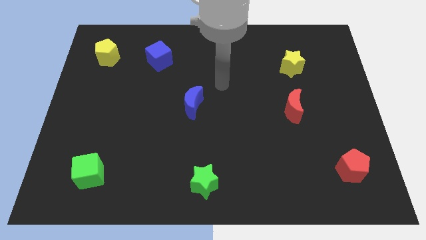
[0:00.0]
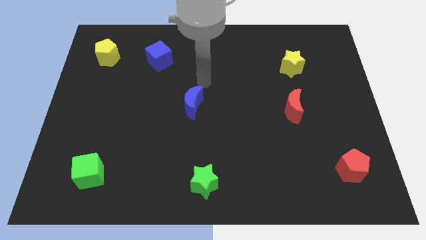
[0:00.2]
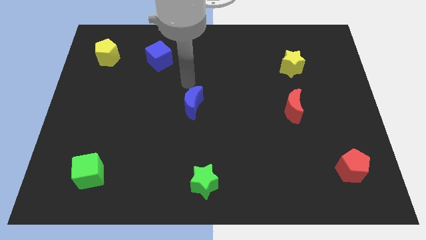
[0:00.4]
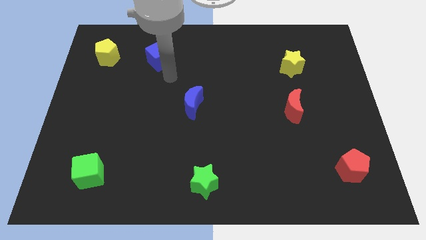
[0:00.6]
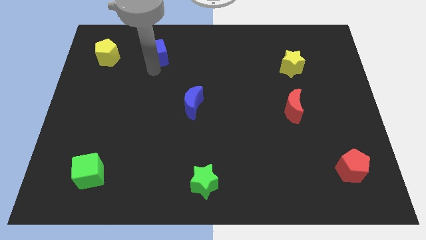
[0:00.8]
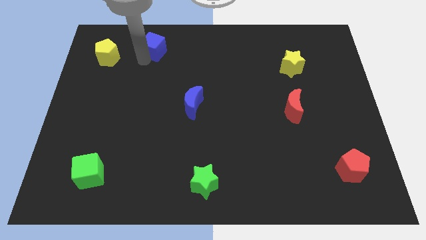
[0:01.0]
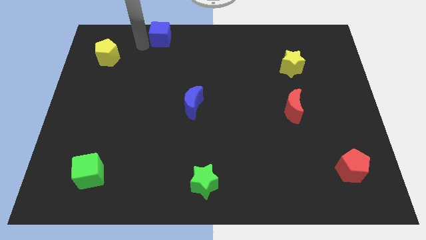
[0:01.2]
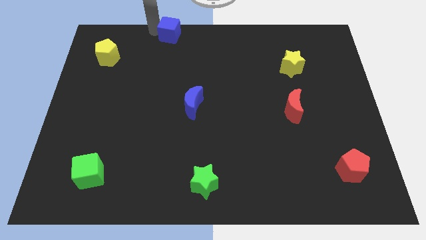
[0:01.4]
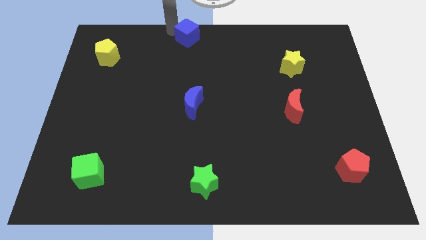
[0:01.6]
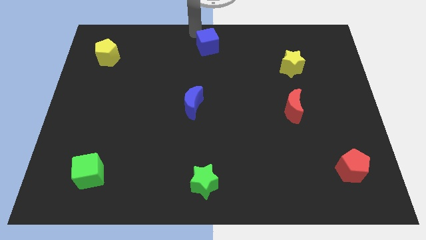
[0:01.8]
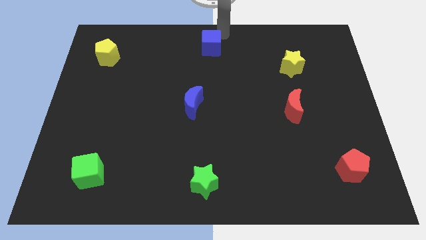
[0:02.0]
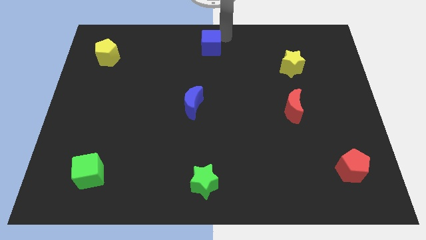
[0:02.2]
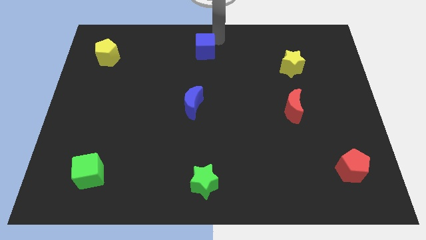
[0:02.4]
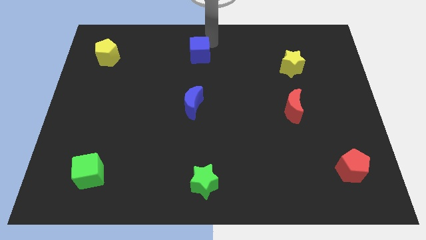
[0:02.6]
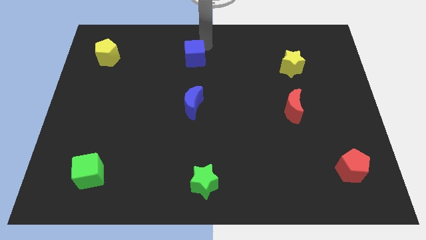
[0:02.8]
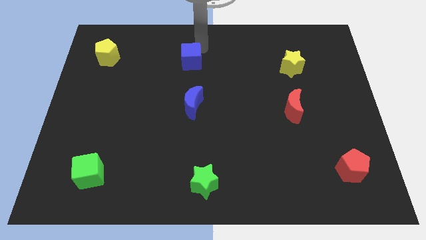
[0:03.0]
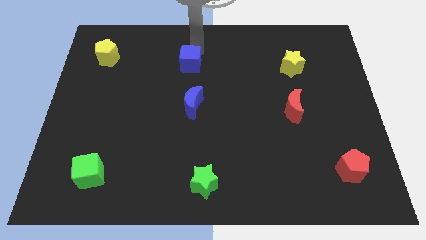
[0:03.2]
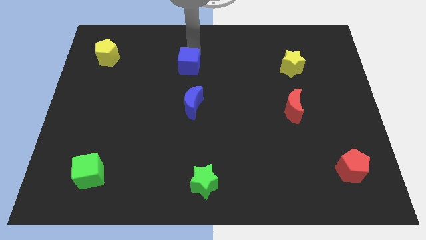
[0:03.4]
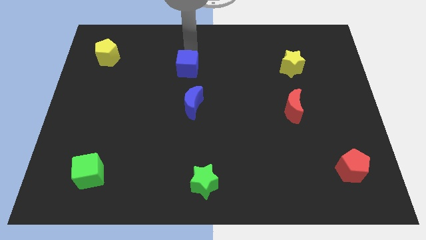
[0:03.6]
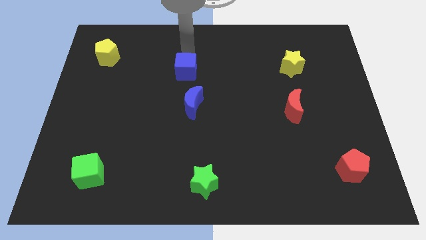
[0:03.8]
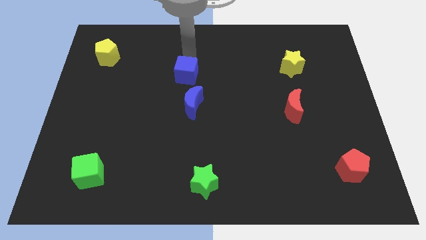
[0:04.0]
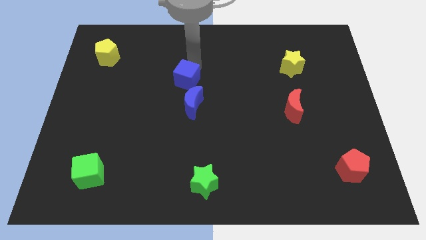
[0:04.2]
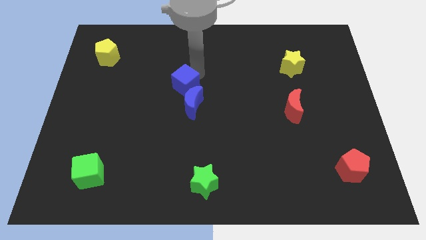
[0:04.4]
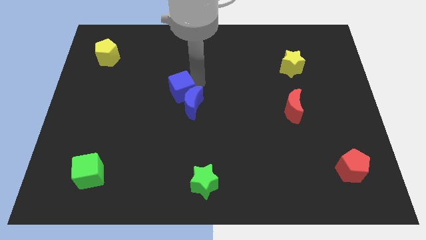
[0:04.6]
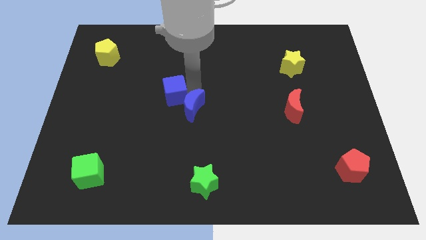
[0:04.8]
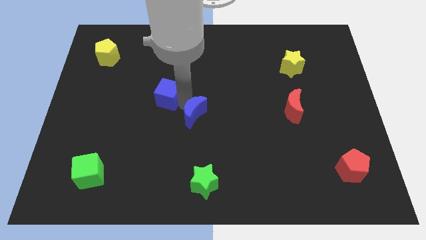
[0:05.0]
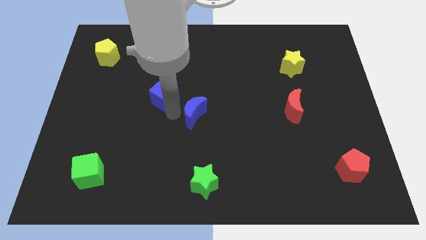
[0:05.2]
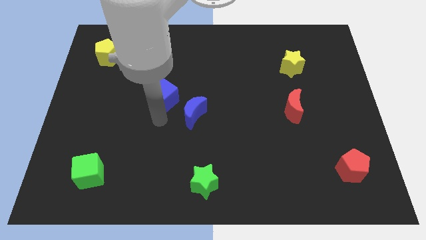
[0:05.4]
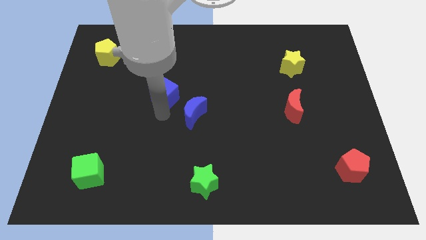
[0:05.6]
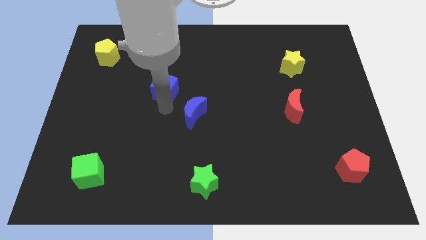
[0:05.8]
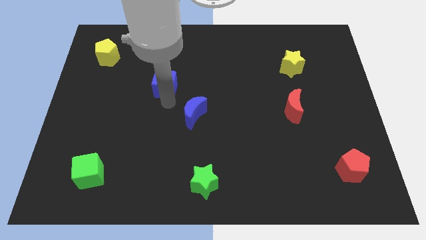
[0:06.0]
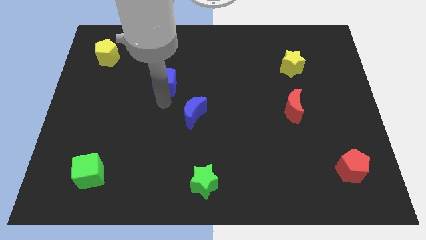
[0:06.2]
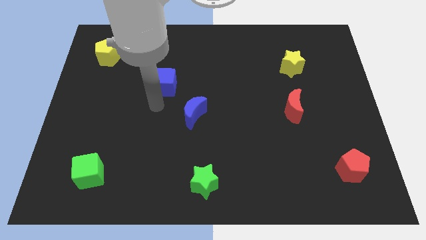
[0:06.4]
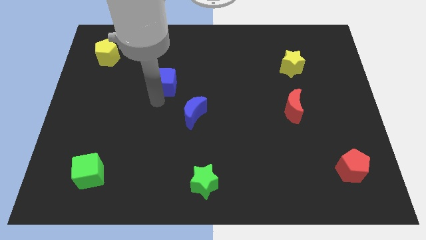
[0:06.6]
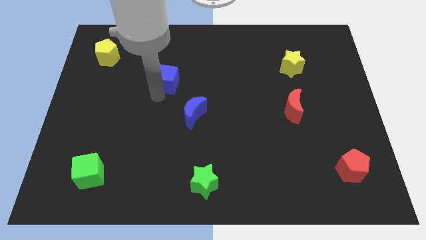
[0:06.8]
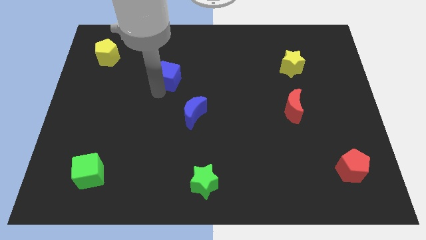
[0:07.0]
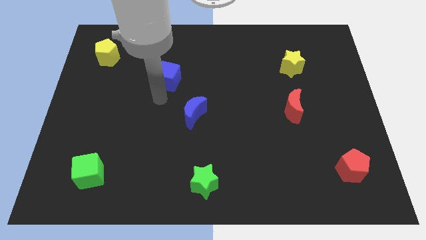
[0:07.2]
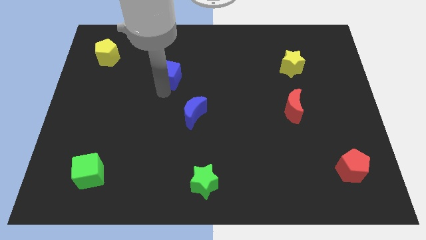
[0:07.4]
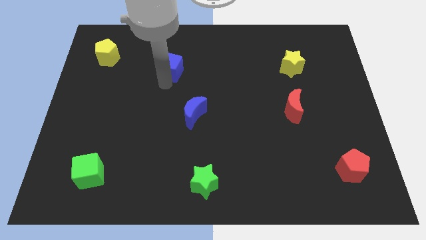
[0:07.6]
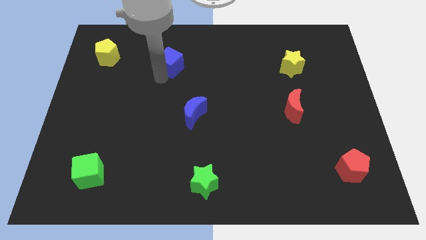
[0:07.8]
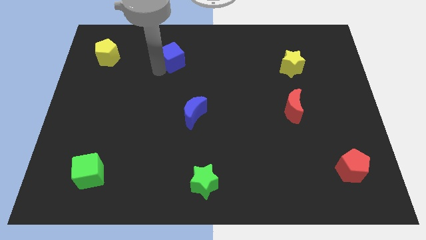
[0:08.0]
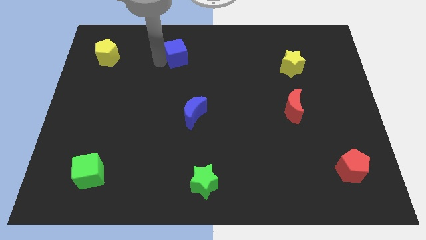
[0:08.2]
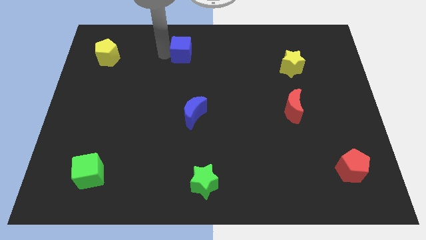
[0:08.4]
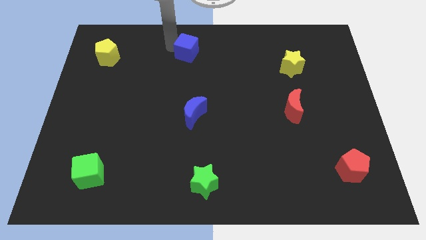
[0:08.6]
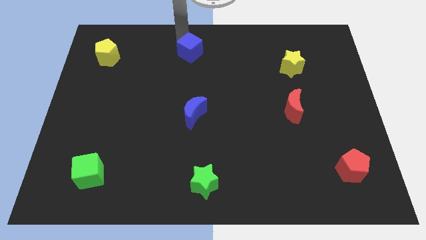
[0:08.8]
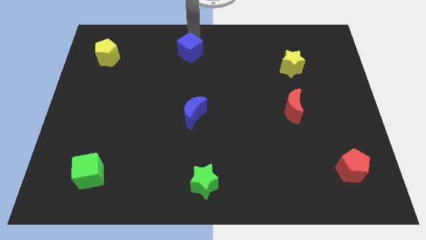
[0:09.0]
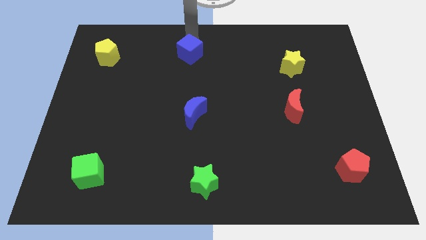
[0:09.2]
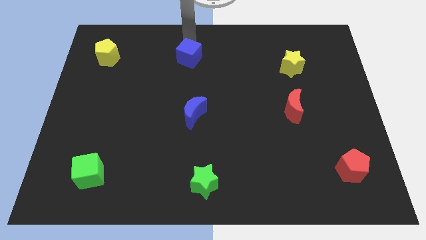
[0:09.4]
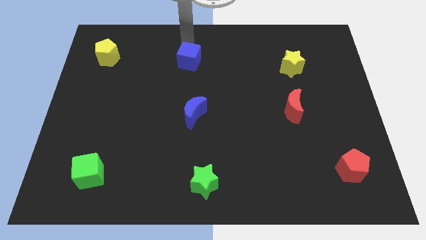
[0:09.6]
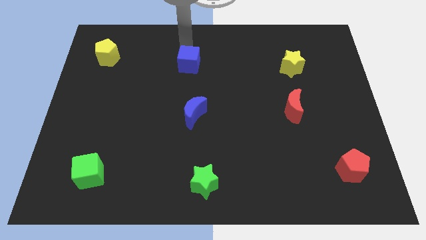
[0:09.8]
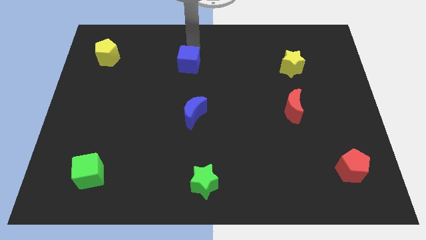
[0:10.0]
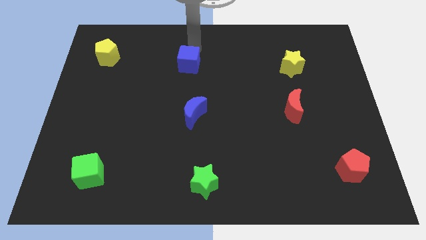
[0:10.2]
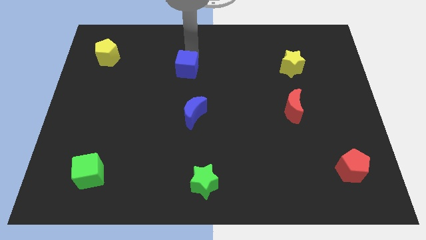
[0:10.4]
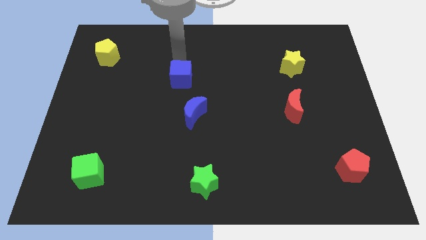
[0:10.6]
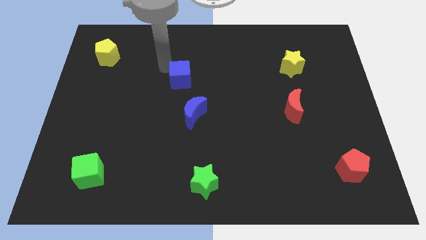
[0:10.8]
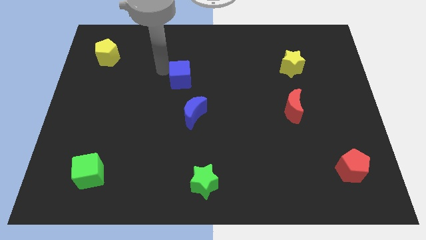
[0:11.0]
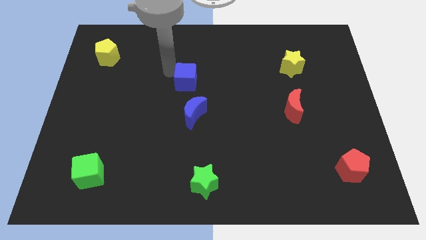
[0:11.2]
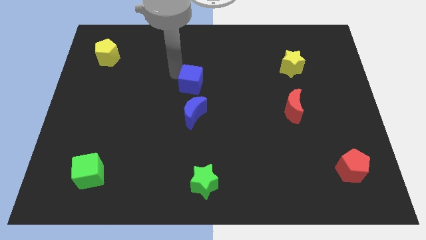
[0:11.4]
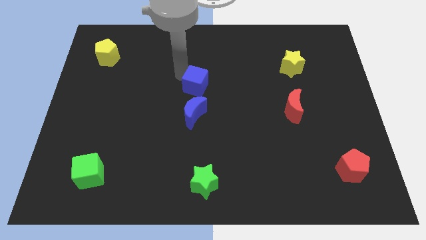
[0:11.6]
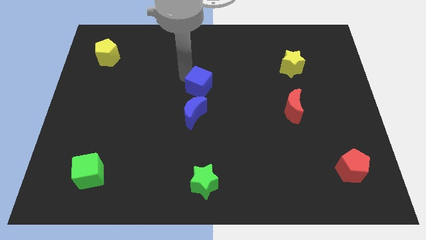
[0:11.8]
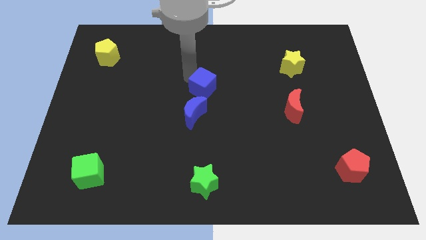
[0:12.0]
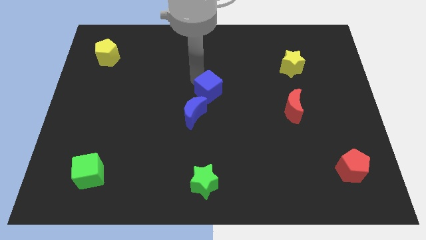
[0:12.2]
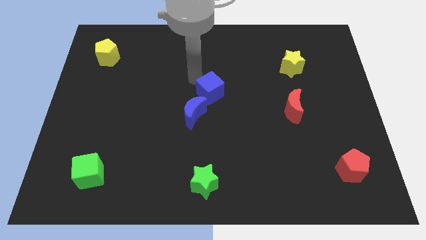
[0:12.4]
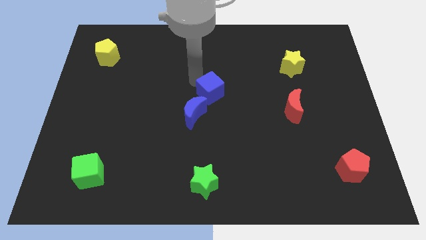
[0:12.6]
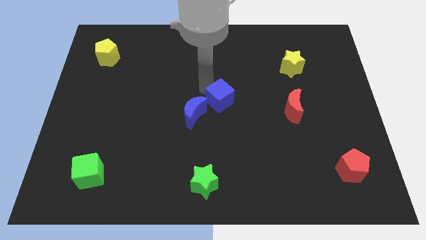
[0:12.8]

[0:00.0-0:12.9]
move the blue cube down and right

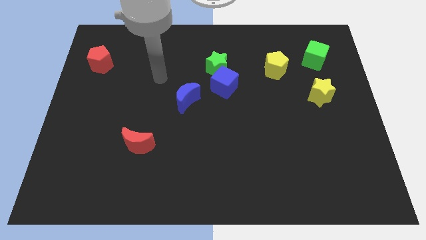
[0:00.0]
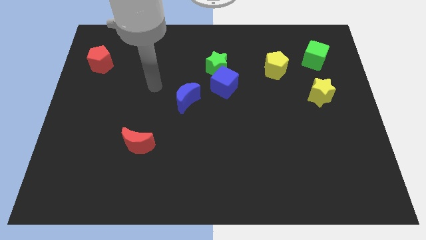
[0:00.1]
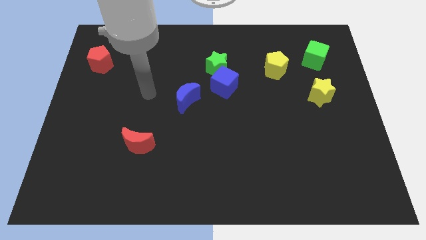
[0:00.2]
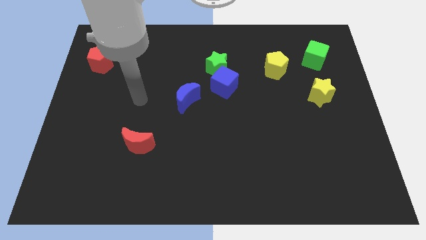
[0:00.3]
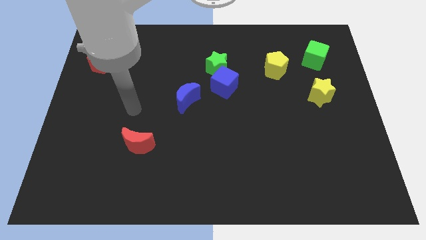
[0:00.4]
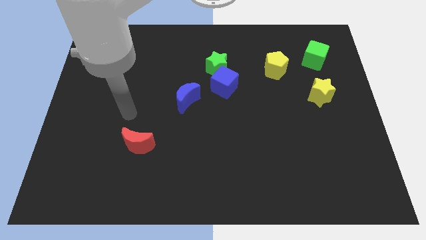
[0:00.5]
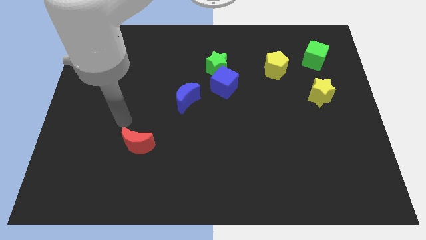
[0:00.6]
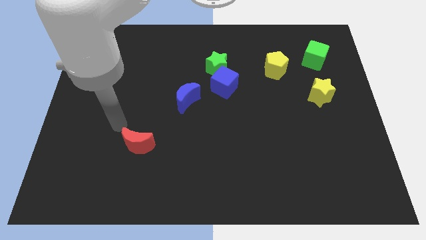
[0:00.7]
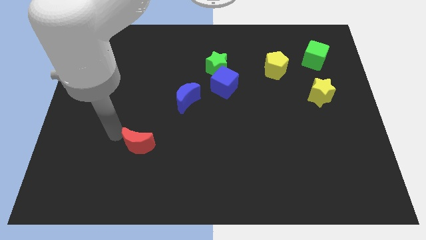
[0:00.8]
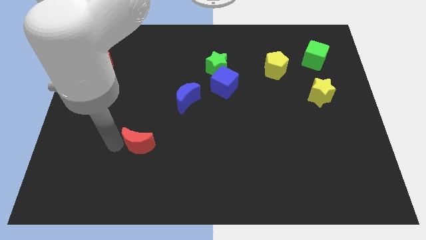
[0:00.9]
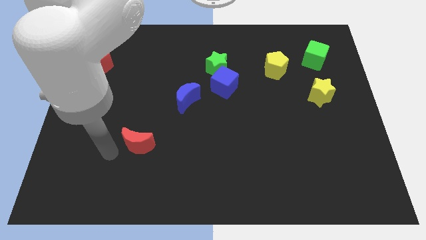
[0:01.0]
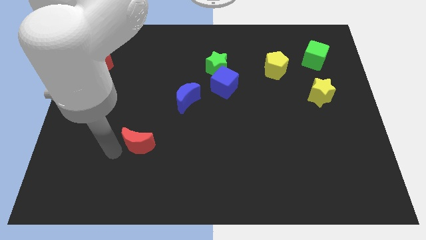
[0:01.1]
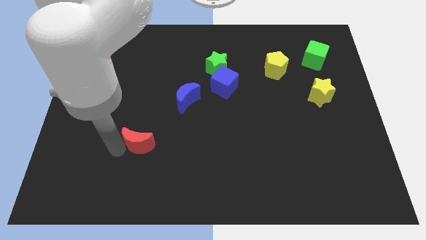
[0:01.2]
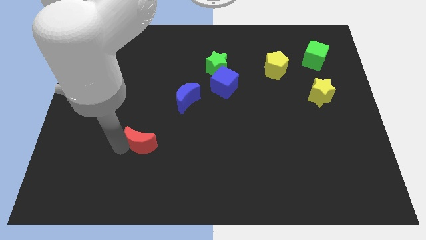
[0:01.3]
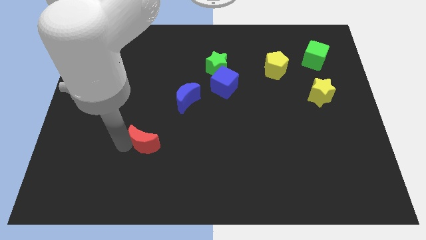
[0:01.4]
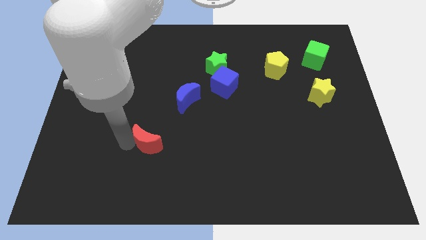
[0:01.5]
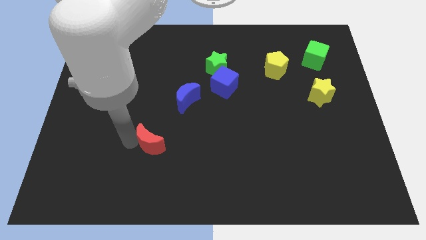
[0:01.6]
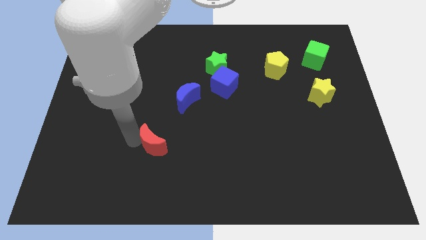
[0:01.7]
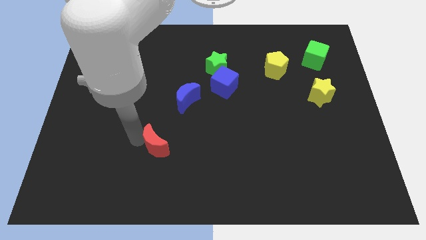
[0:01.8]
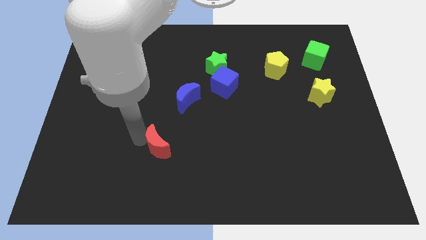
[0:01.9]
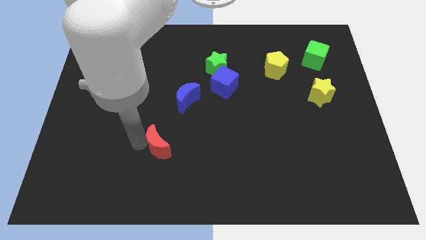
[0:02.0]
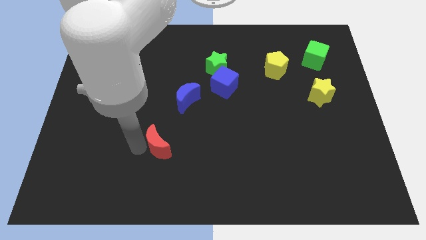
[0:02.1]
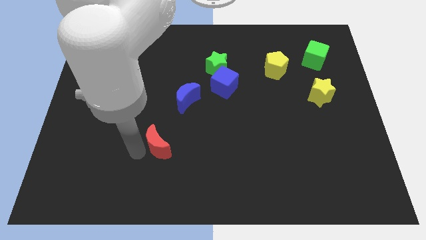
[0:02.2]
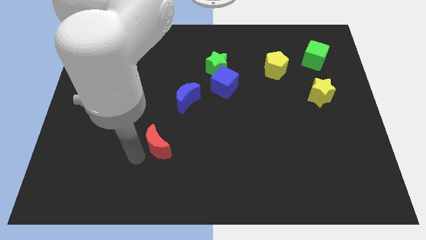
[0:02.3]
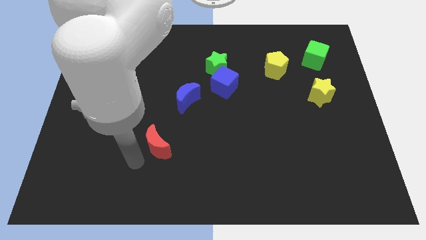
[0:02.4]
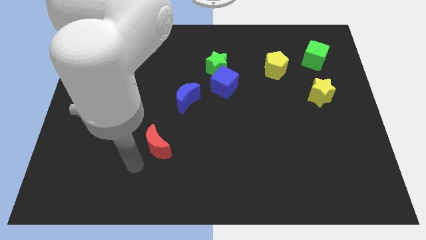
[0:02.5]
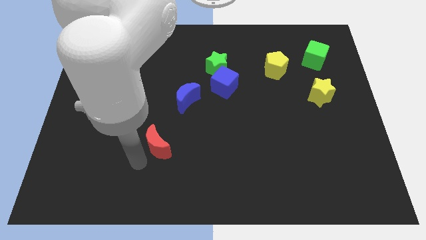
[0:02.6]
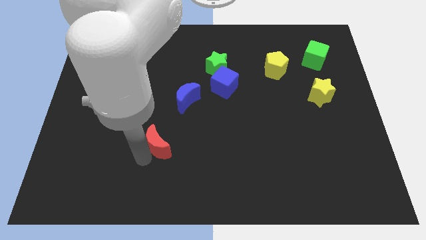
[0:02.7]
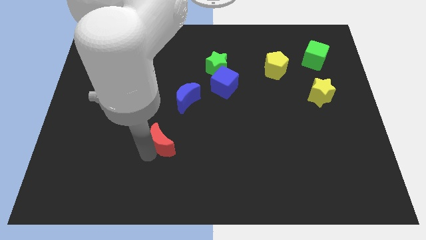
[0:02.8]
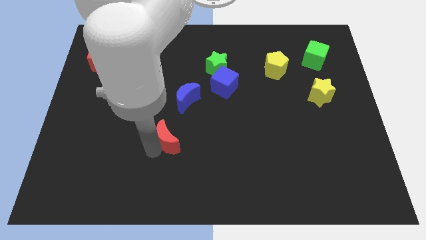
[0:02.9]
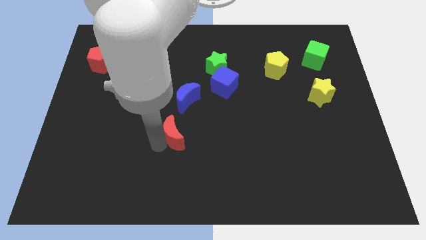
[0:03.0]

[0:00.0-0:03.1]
push the red moon right slightly
